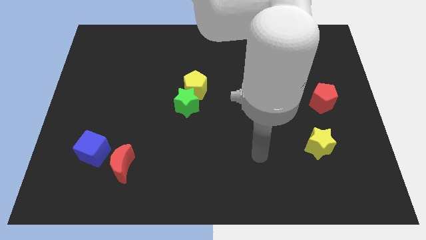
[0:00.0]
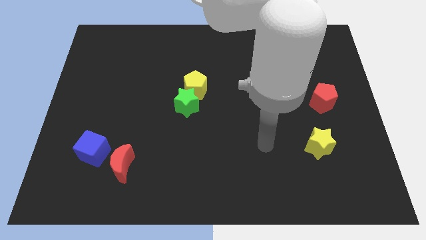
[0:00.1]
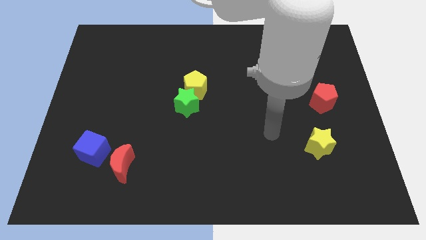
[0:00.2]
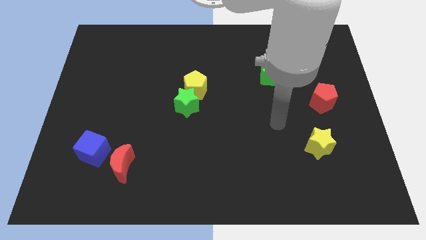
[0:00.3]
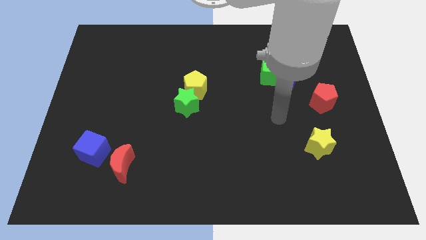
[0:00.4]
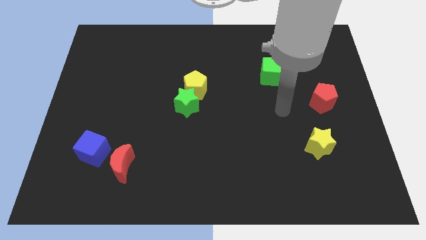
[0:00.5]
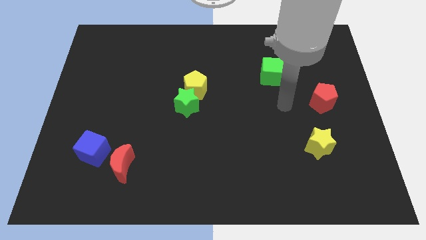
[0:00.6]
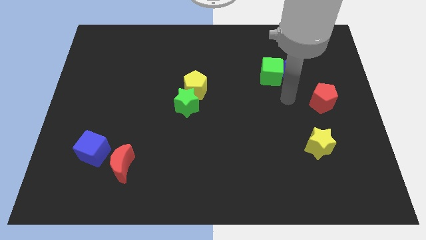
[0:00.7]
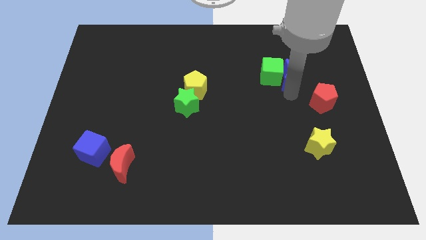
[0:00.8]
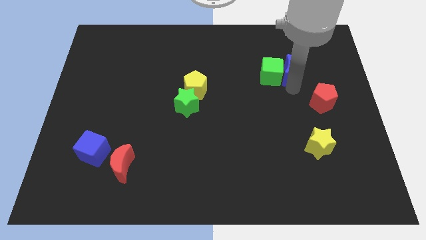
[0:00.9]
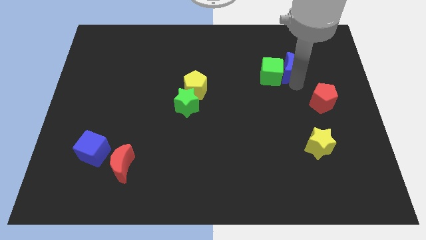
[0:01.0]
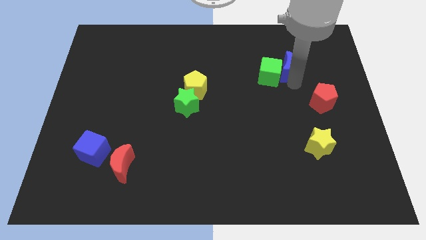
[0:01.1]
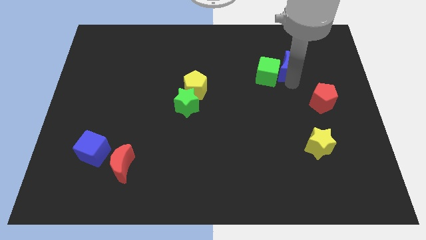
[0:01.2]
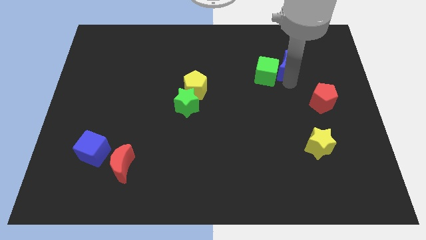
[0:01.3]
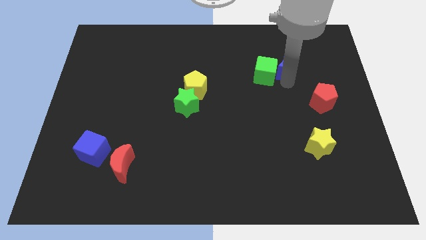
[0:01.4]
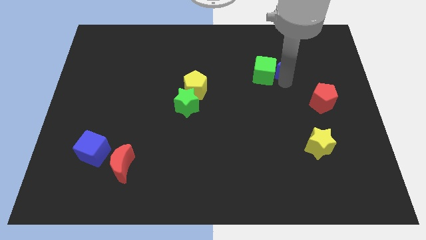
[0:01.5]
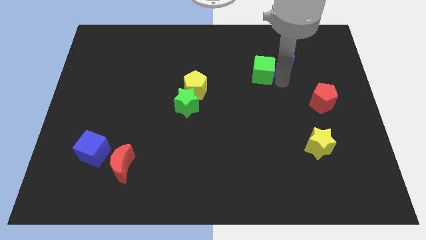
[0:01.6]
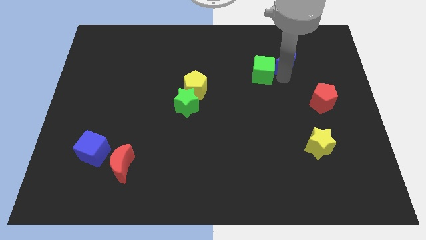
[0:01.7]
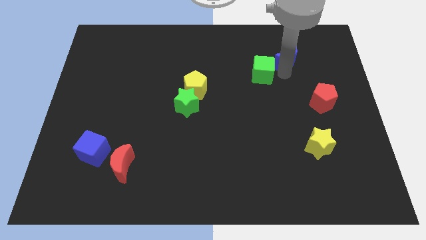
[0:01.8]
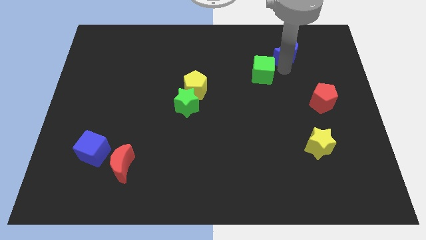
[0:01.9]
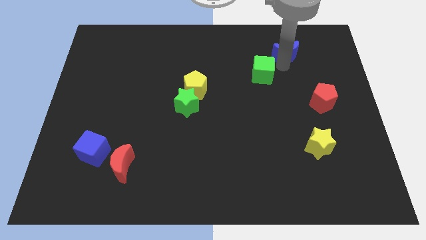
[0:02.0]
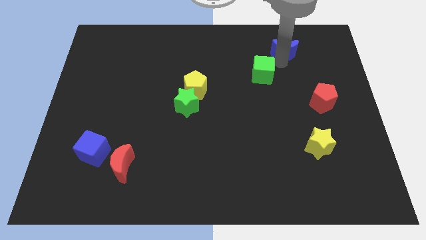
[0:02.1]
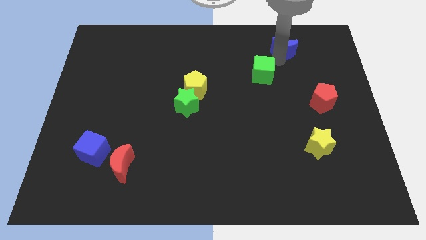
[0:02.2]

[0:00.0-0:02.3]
separate the green cube from the blue moon

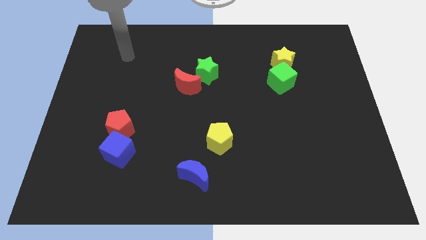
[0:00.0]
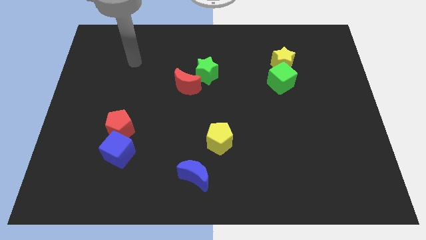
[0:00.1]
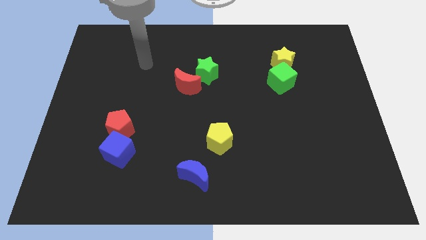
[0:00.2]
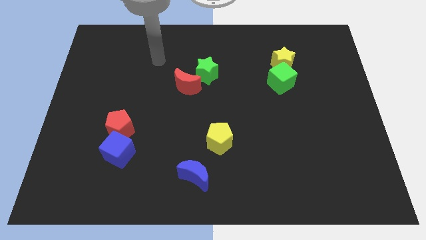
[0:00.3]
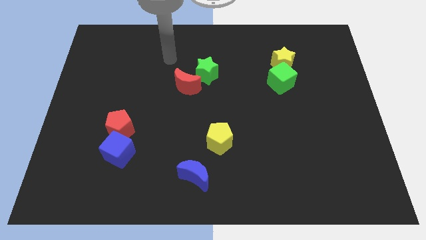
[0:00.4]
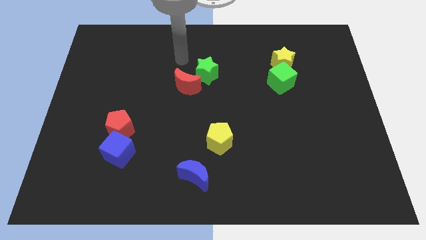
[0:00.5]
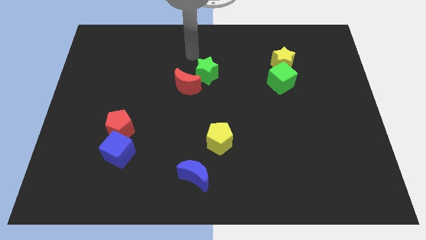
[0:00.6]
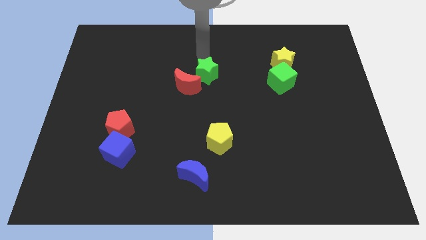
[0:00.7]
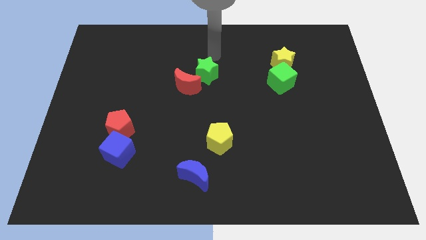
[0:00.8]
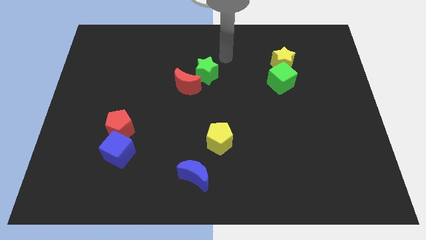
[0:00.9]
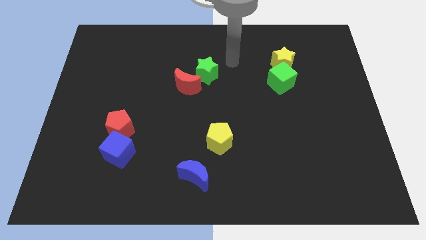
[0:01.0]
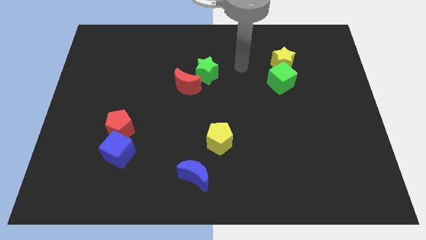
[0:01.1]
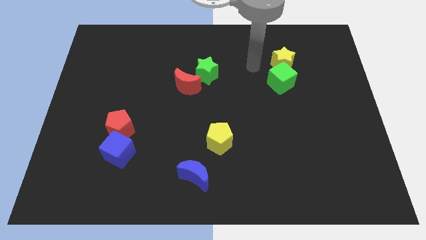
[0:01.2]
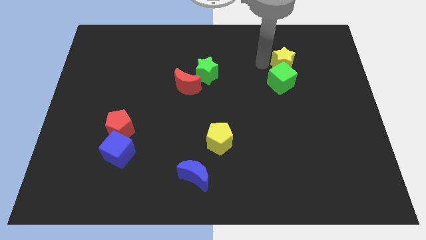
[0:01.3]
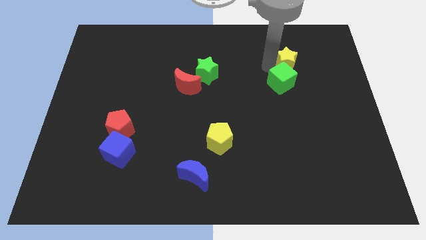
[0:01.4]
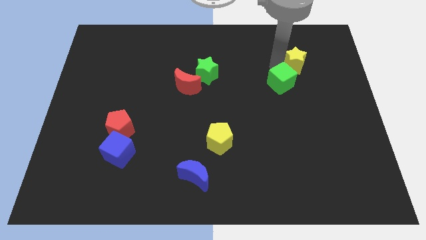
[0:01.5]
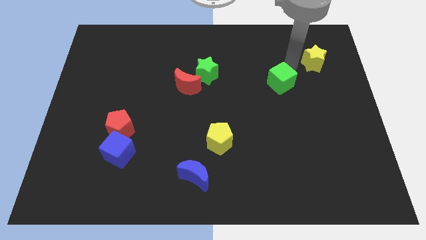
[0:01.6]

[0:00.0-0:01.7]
pull the green cube apart from the yellow star

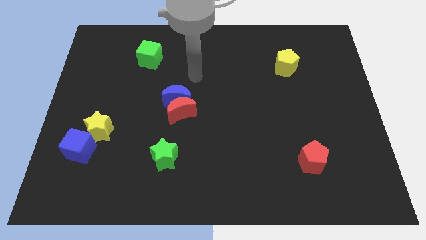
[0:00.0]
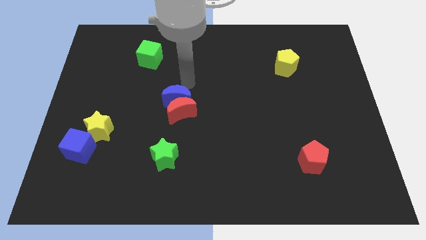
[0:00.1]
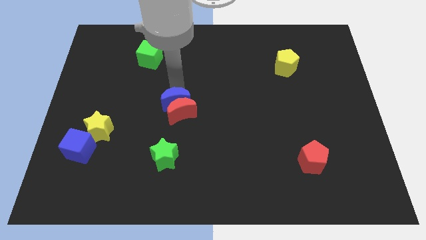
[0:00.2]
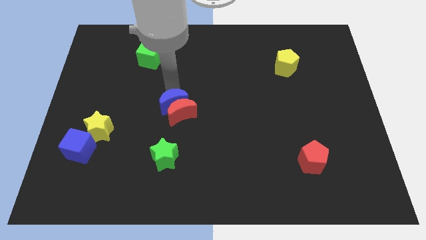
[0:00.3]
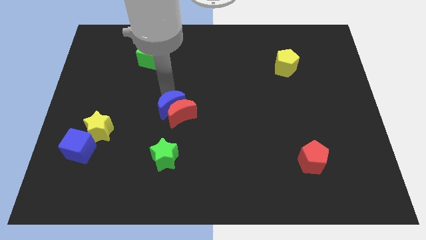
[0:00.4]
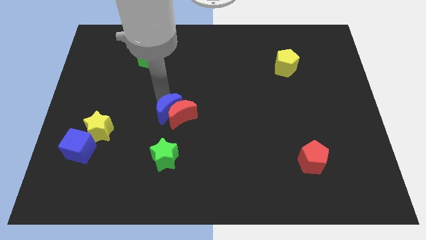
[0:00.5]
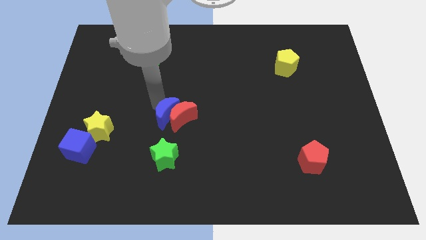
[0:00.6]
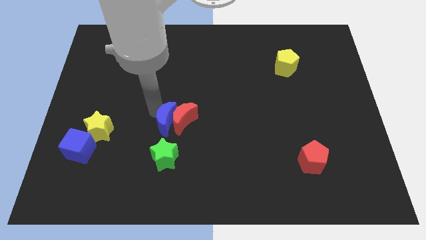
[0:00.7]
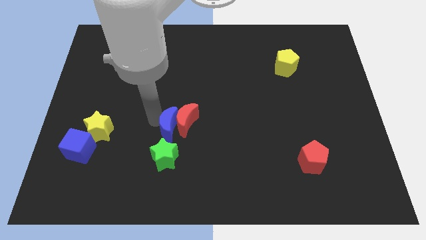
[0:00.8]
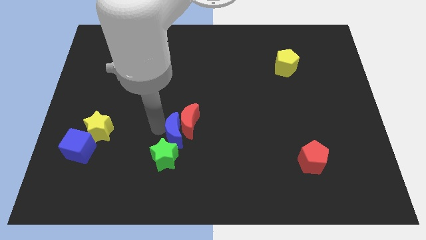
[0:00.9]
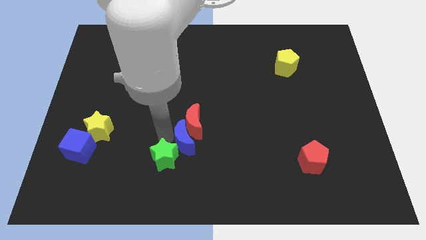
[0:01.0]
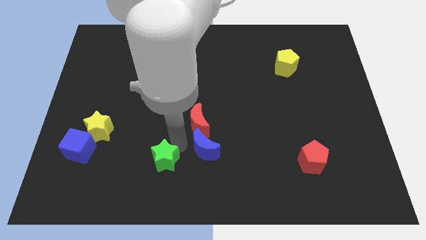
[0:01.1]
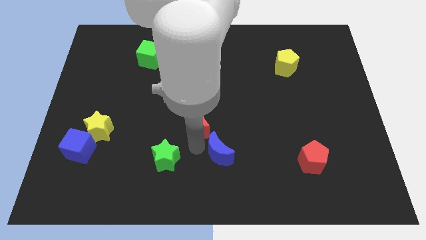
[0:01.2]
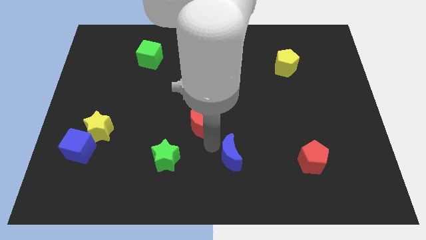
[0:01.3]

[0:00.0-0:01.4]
separate the red moon from the blue moon

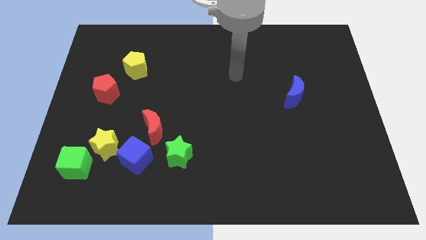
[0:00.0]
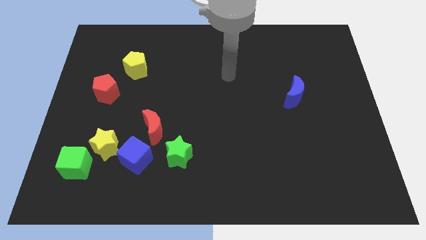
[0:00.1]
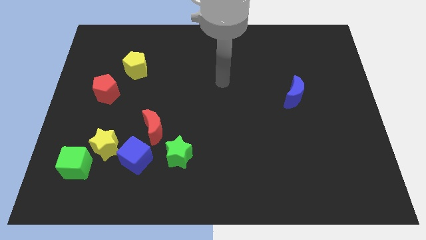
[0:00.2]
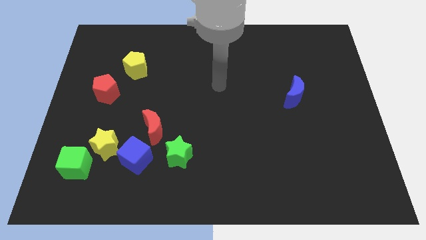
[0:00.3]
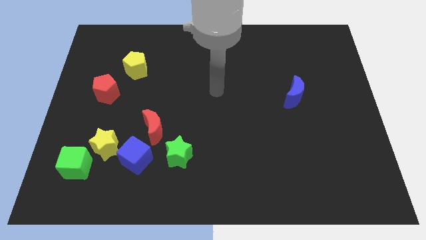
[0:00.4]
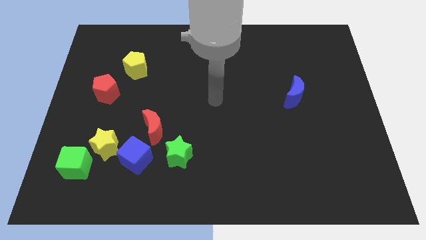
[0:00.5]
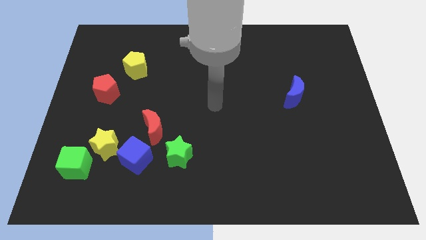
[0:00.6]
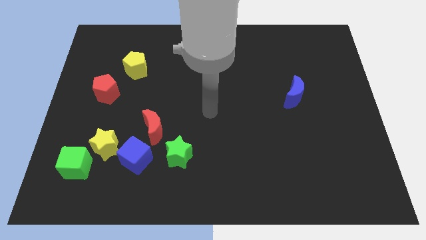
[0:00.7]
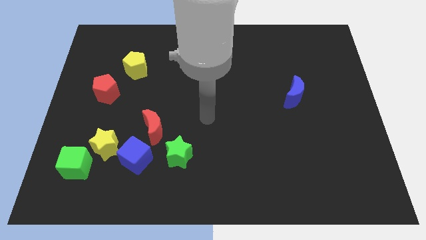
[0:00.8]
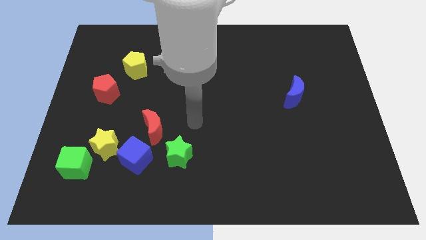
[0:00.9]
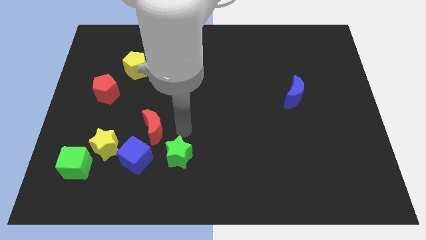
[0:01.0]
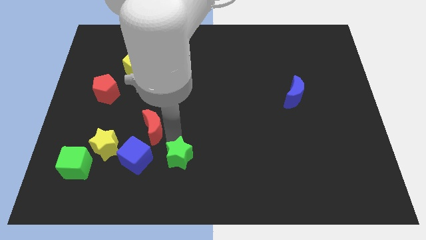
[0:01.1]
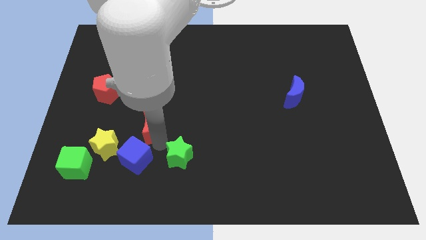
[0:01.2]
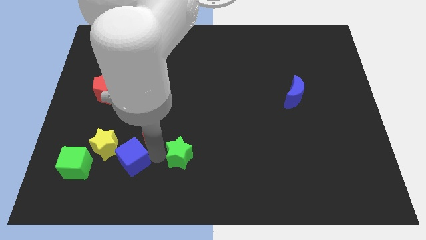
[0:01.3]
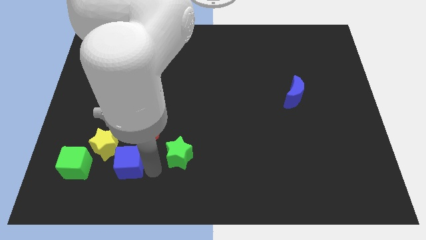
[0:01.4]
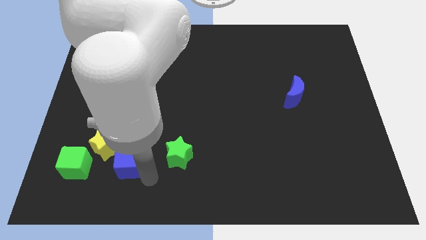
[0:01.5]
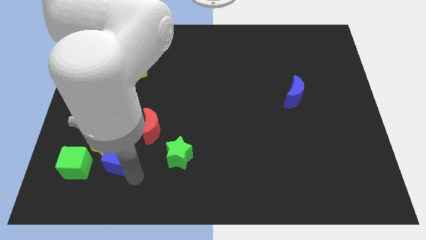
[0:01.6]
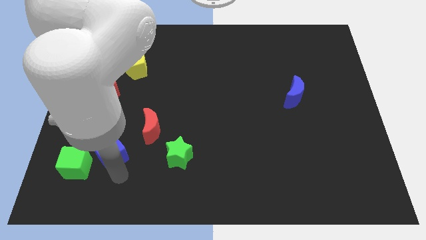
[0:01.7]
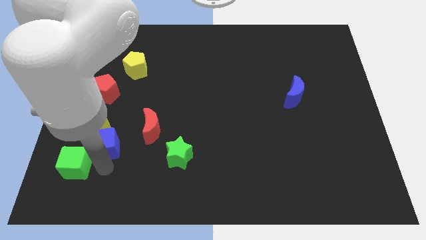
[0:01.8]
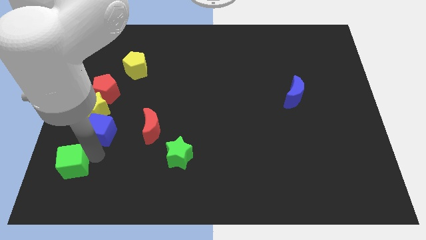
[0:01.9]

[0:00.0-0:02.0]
separate the yellow star from the blue cube and green cube

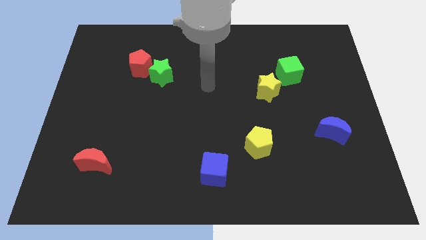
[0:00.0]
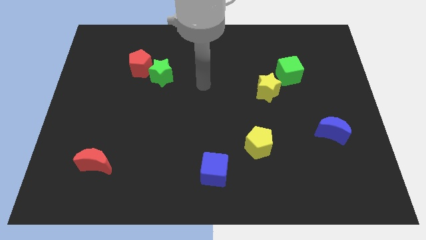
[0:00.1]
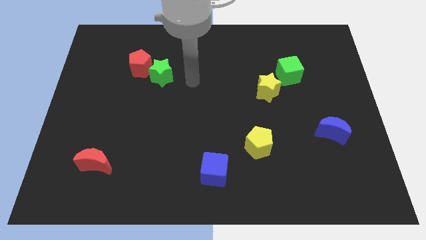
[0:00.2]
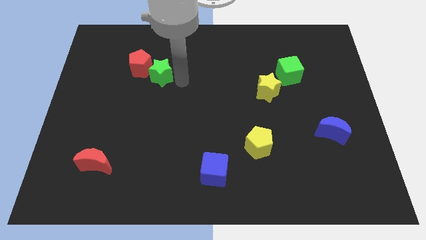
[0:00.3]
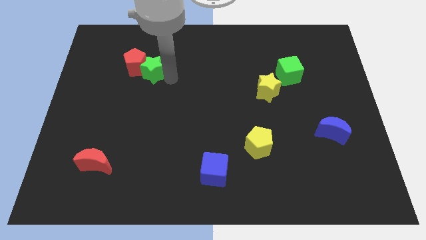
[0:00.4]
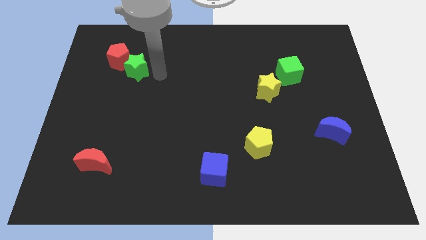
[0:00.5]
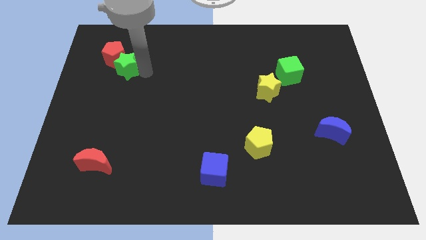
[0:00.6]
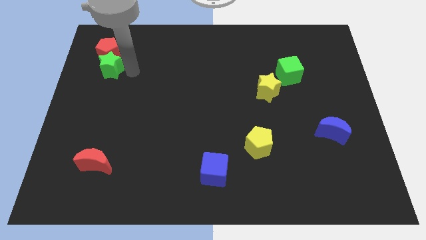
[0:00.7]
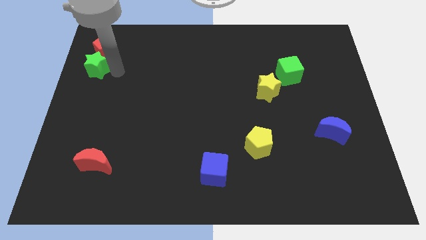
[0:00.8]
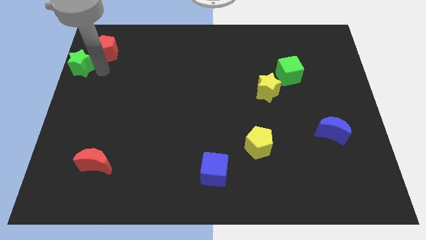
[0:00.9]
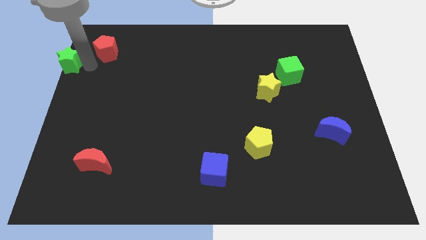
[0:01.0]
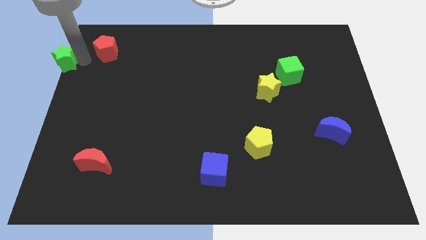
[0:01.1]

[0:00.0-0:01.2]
separate the red pentagon from the green star

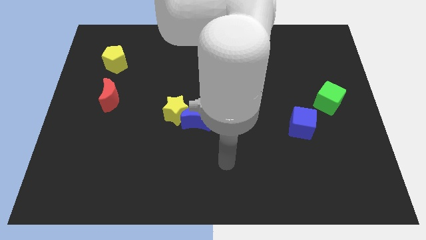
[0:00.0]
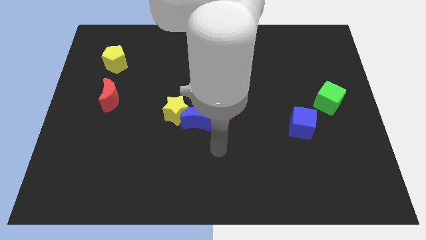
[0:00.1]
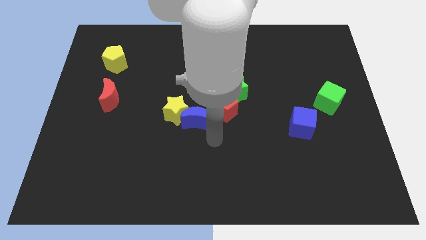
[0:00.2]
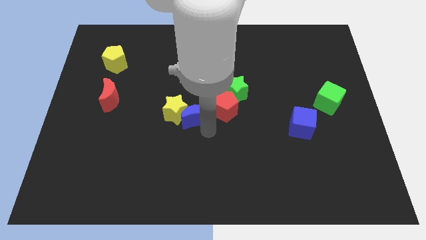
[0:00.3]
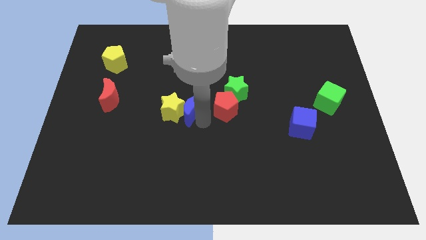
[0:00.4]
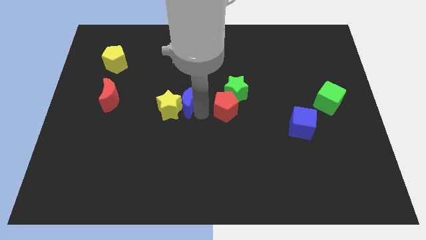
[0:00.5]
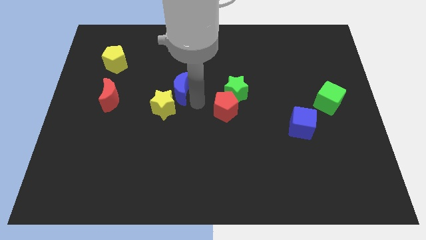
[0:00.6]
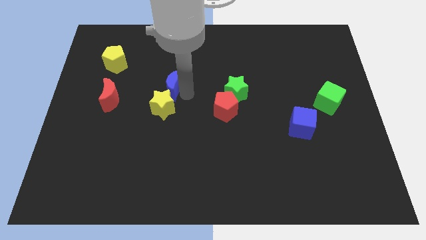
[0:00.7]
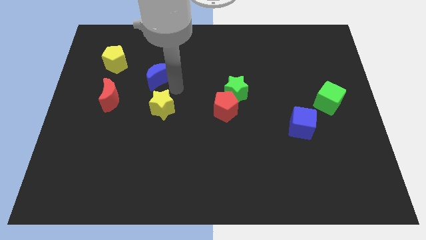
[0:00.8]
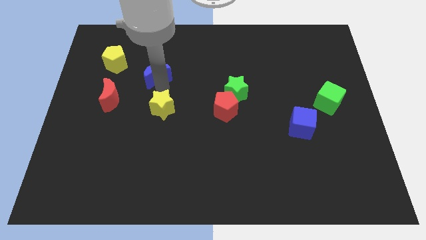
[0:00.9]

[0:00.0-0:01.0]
separate the yellow star from the blue moon
